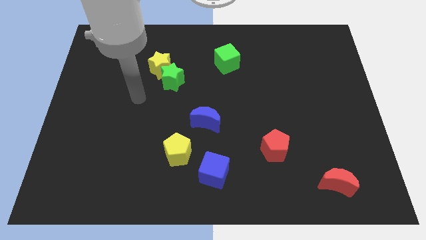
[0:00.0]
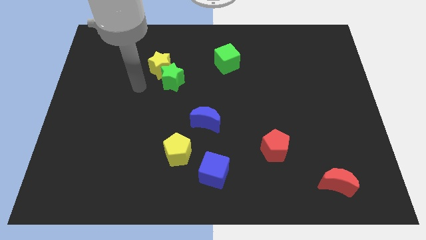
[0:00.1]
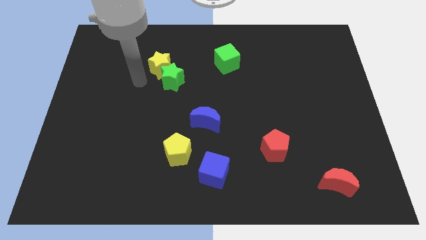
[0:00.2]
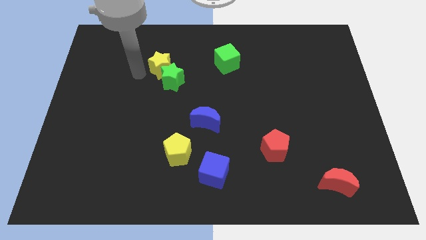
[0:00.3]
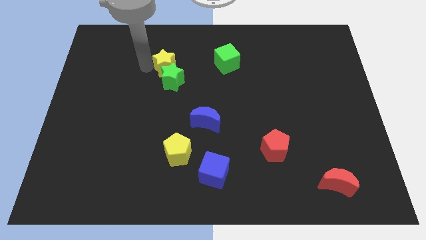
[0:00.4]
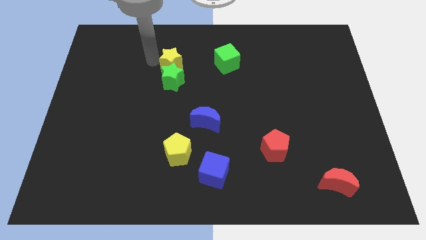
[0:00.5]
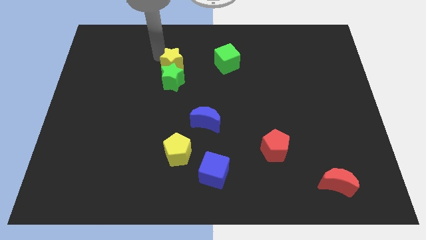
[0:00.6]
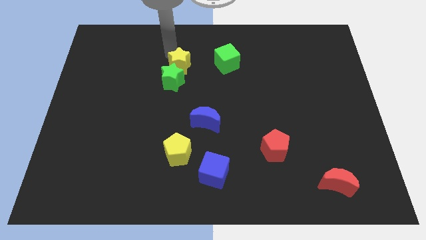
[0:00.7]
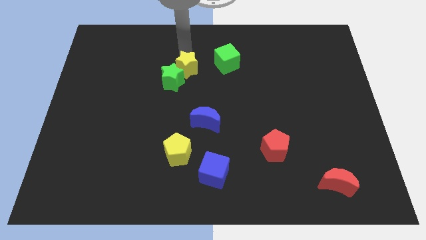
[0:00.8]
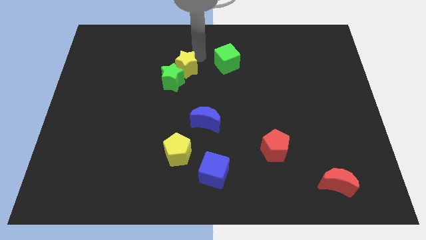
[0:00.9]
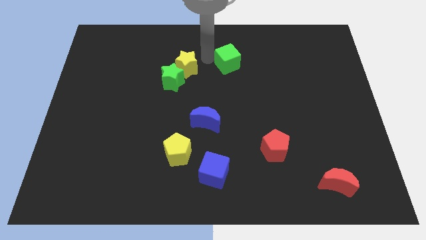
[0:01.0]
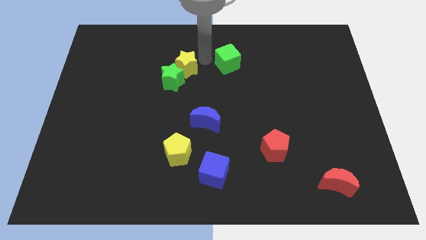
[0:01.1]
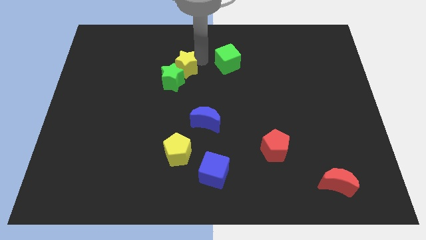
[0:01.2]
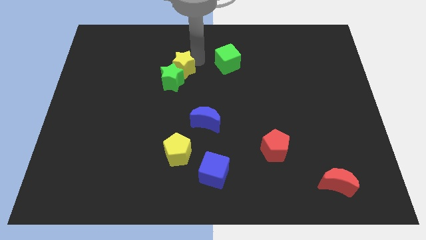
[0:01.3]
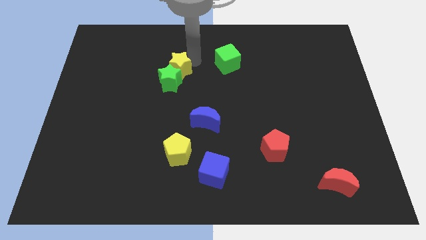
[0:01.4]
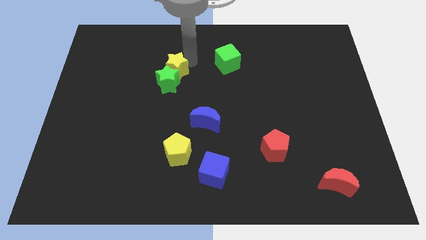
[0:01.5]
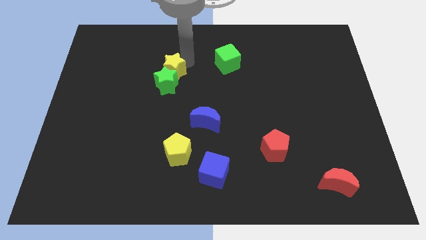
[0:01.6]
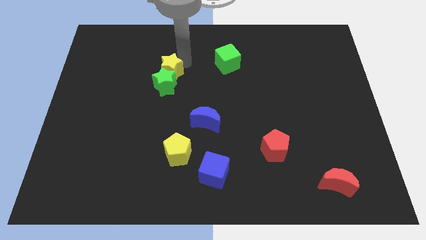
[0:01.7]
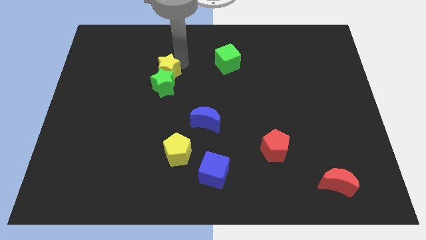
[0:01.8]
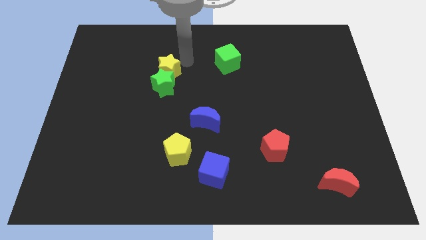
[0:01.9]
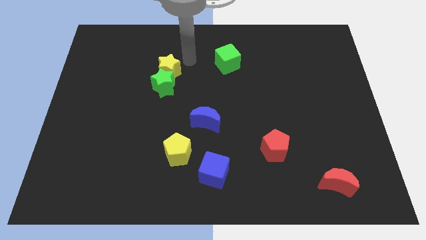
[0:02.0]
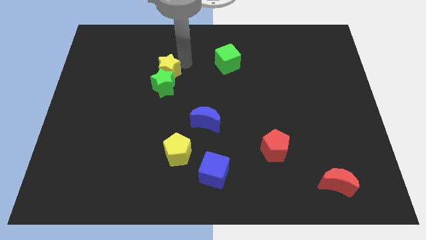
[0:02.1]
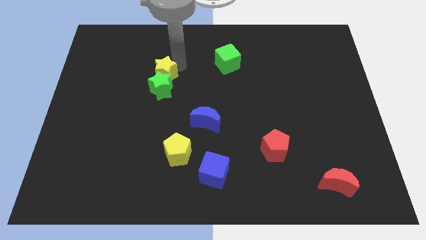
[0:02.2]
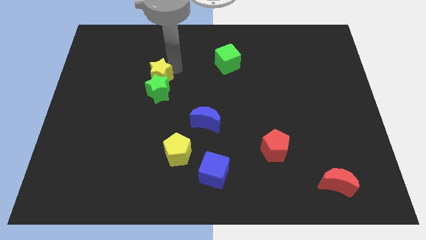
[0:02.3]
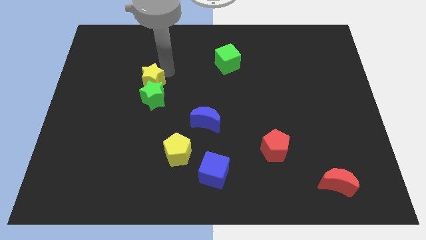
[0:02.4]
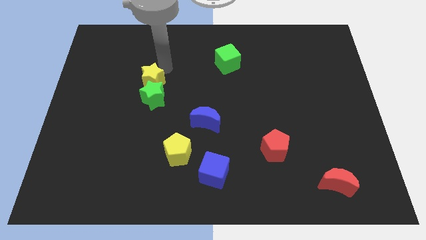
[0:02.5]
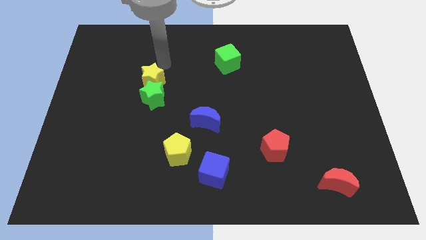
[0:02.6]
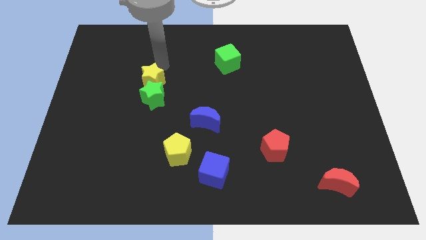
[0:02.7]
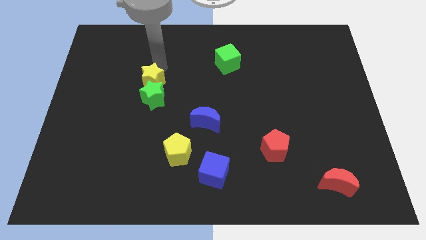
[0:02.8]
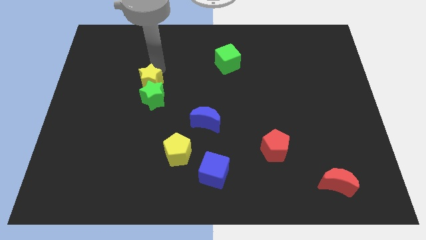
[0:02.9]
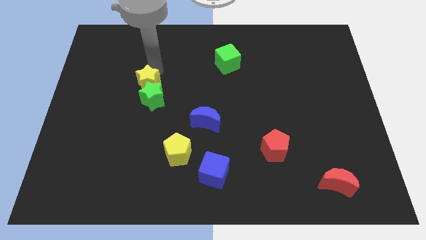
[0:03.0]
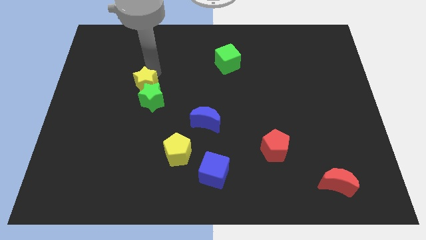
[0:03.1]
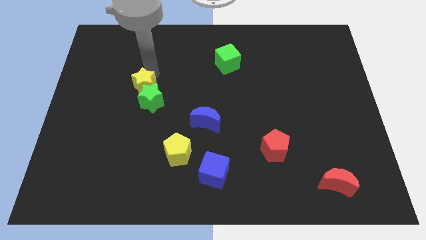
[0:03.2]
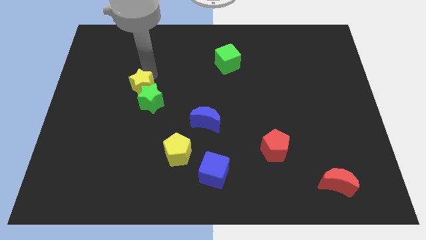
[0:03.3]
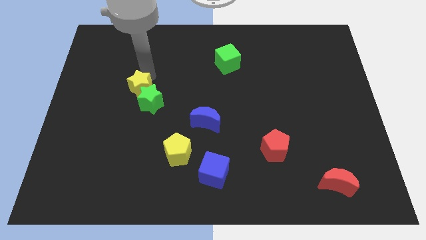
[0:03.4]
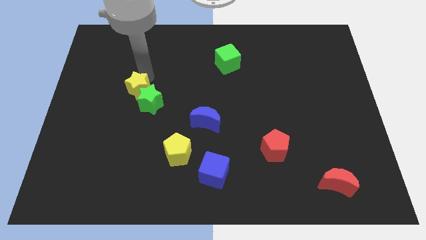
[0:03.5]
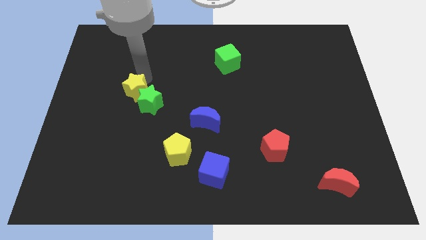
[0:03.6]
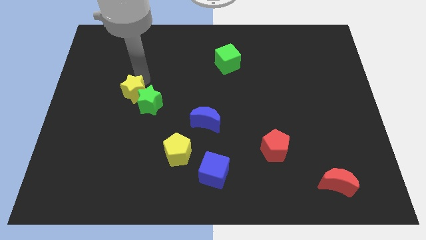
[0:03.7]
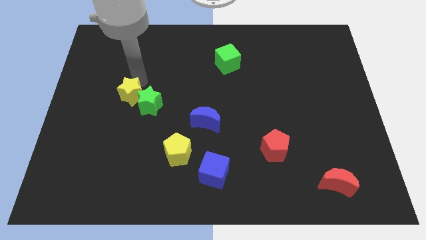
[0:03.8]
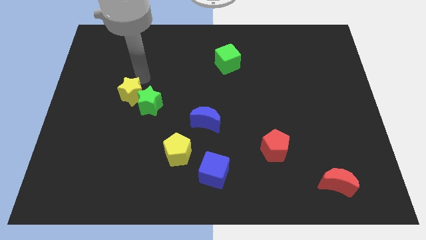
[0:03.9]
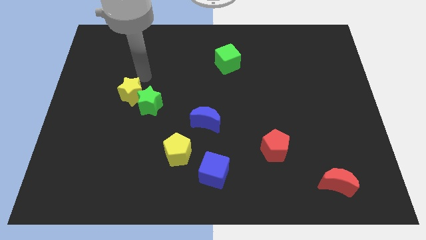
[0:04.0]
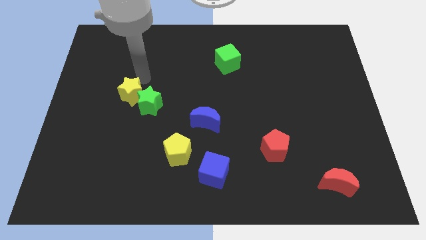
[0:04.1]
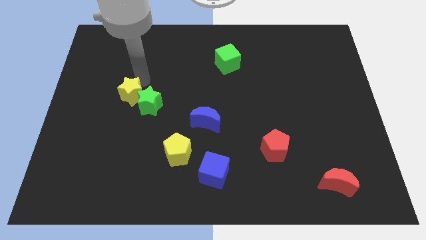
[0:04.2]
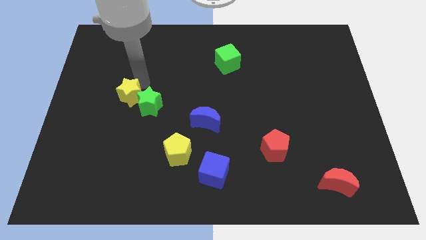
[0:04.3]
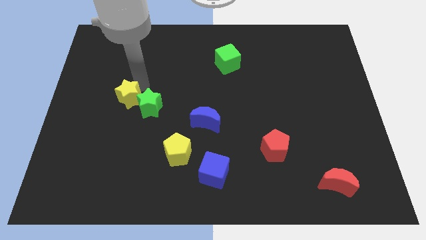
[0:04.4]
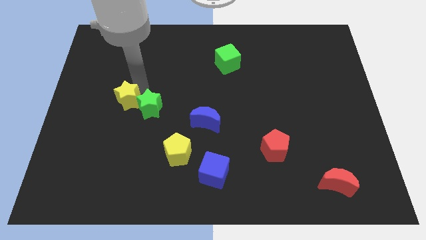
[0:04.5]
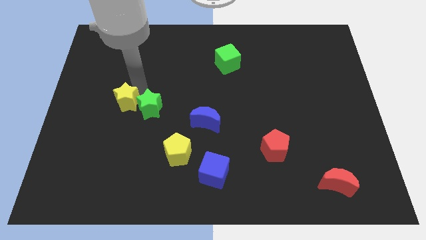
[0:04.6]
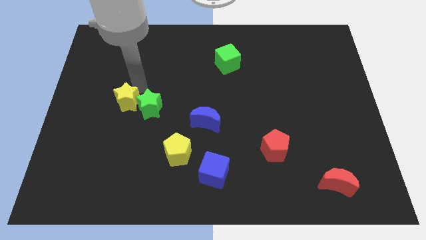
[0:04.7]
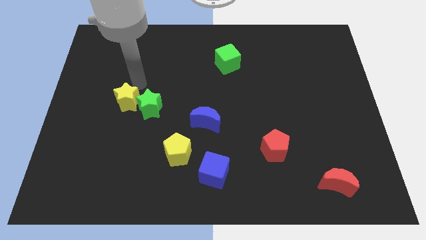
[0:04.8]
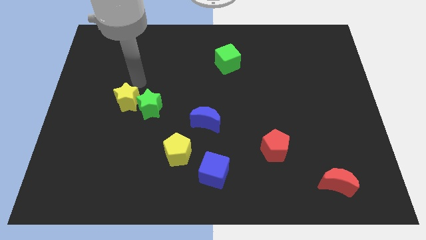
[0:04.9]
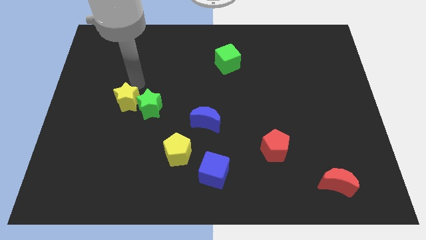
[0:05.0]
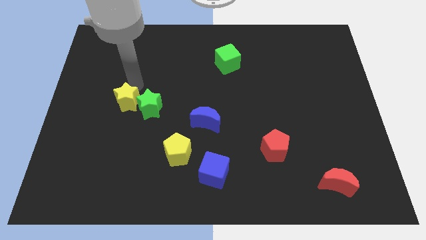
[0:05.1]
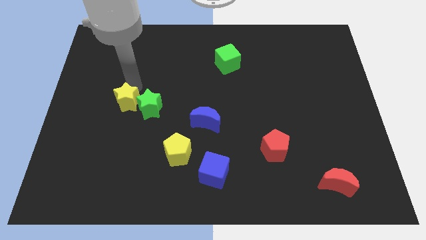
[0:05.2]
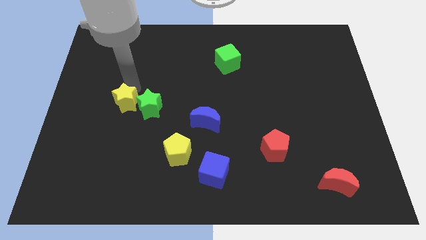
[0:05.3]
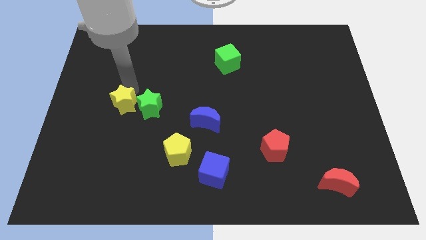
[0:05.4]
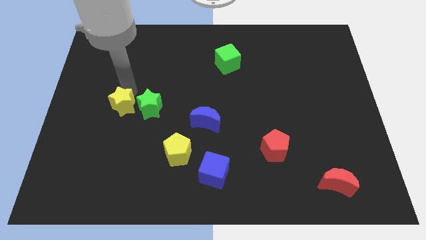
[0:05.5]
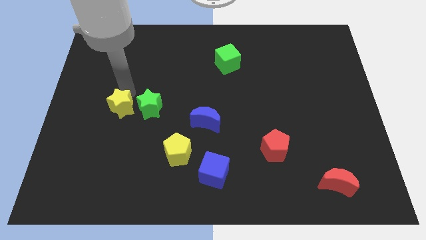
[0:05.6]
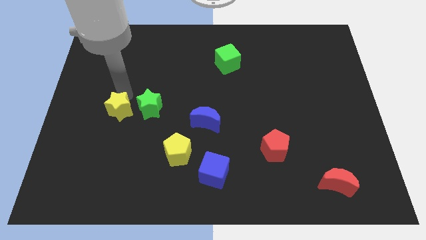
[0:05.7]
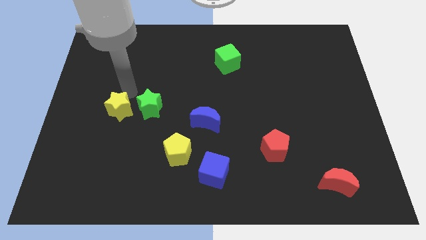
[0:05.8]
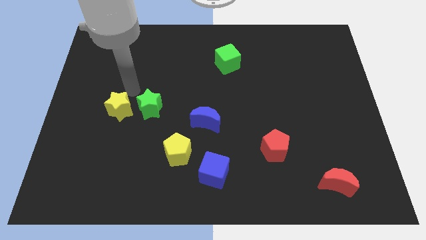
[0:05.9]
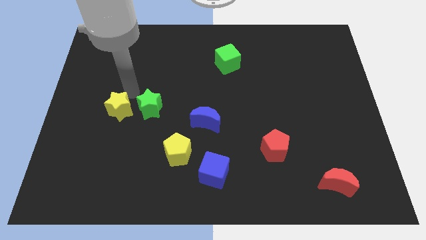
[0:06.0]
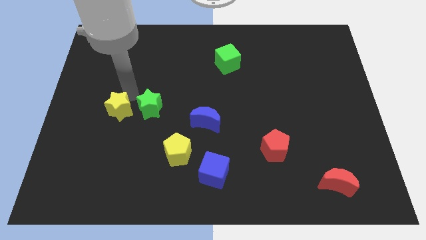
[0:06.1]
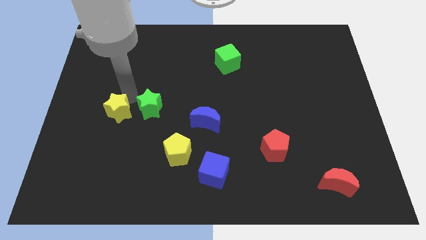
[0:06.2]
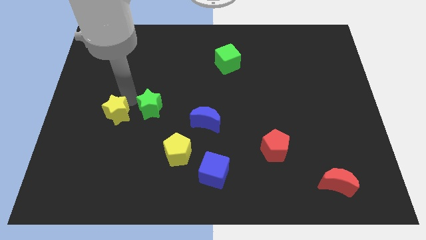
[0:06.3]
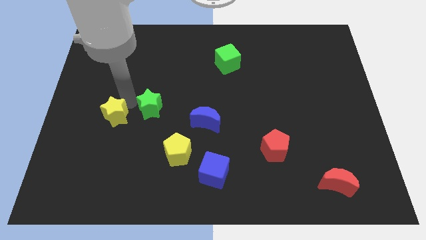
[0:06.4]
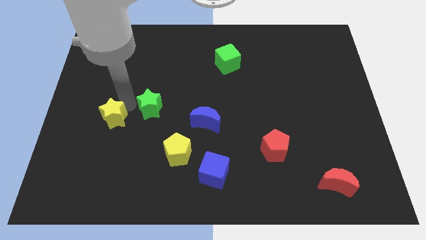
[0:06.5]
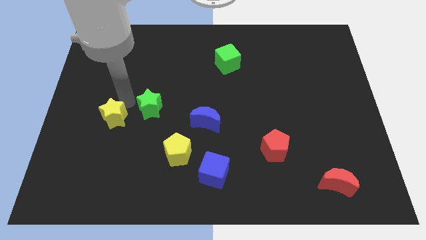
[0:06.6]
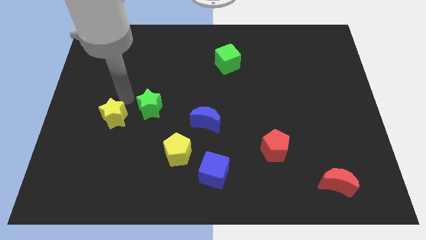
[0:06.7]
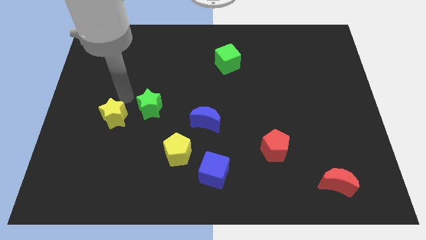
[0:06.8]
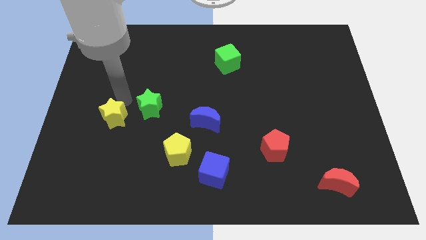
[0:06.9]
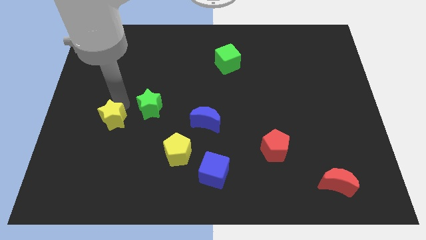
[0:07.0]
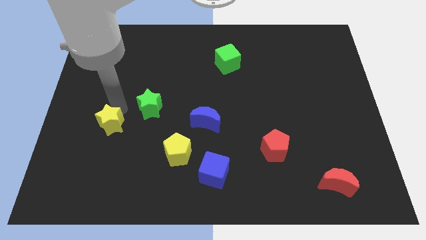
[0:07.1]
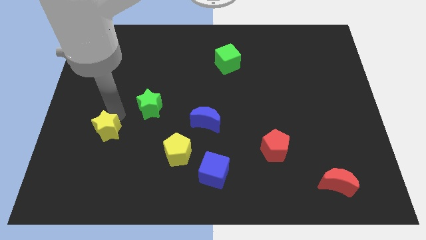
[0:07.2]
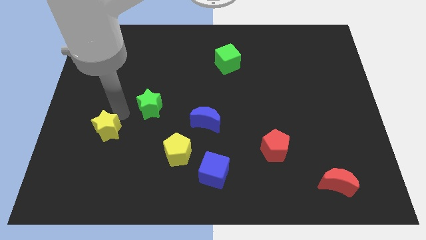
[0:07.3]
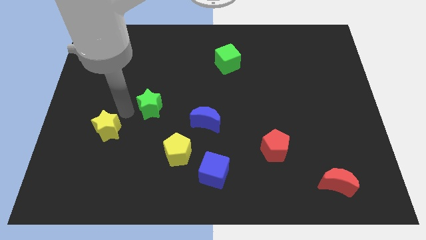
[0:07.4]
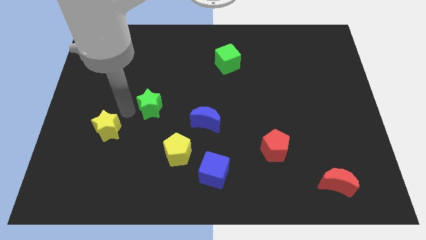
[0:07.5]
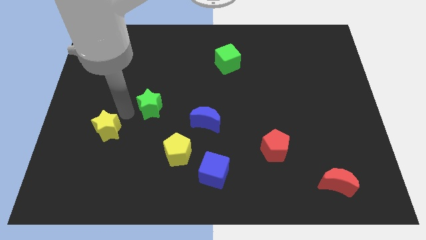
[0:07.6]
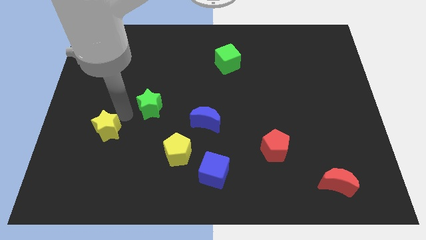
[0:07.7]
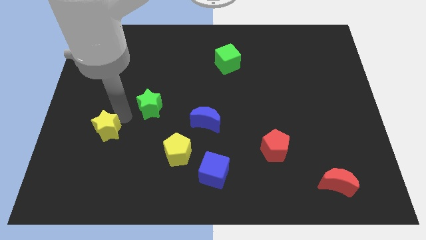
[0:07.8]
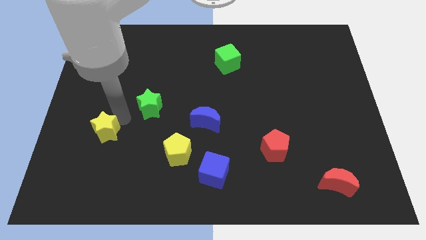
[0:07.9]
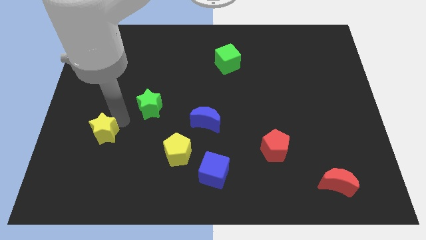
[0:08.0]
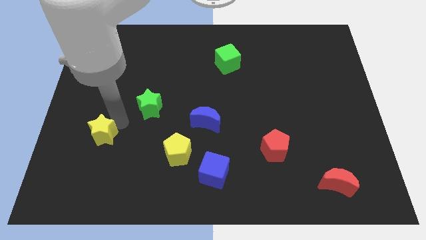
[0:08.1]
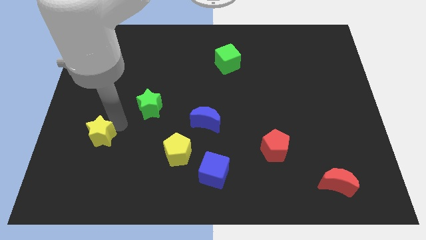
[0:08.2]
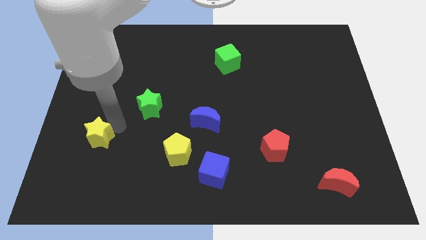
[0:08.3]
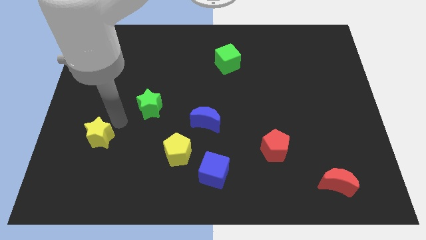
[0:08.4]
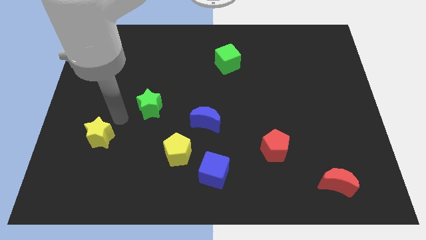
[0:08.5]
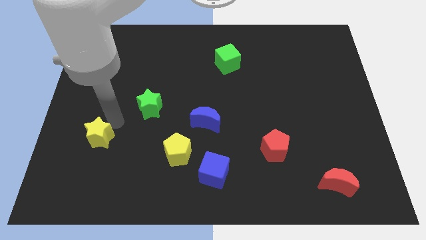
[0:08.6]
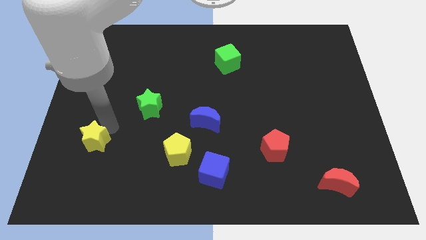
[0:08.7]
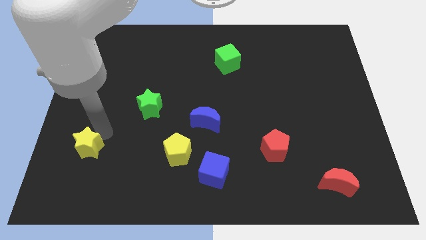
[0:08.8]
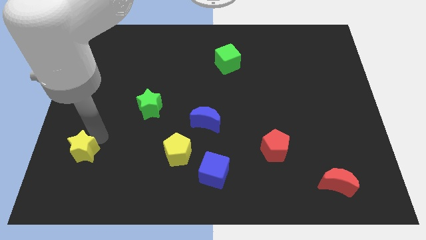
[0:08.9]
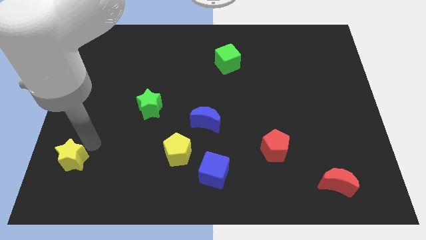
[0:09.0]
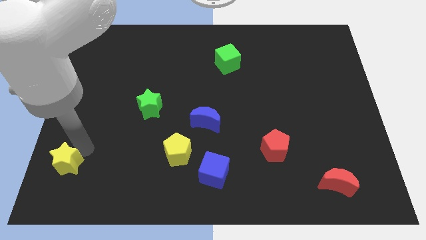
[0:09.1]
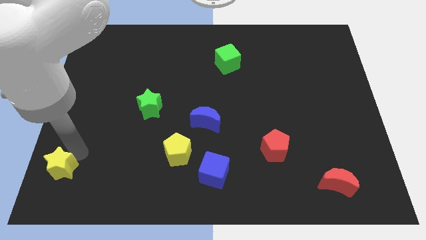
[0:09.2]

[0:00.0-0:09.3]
push the yellow star to the bottom left
